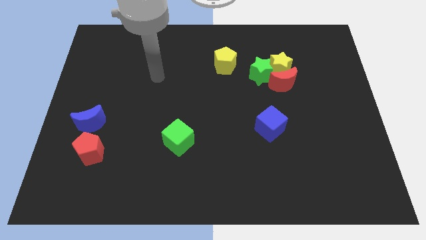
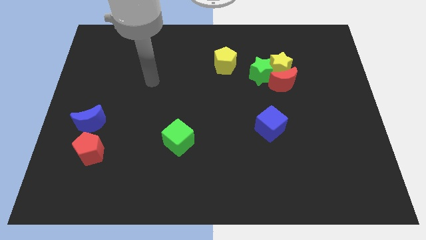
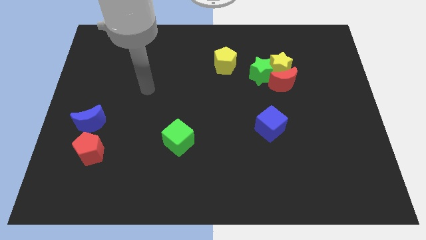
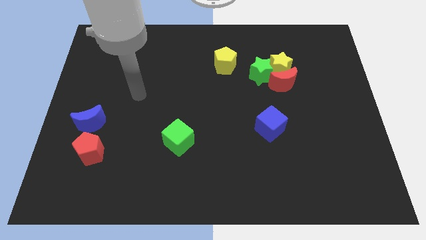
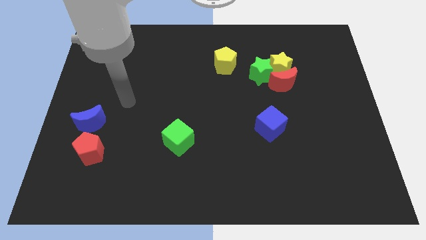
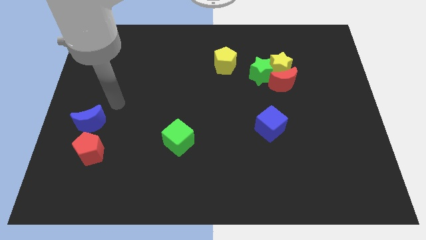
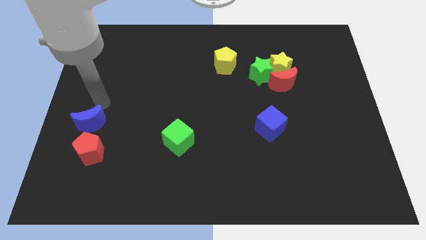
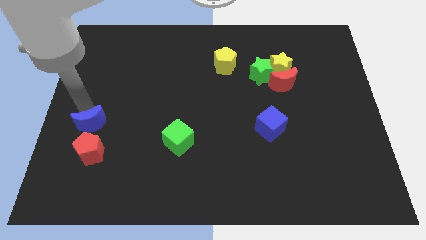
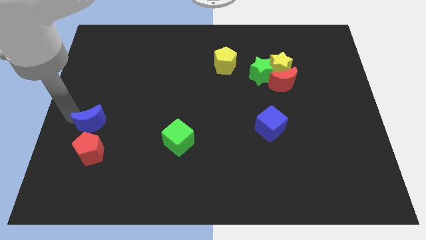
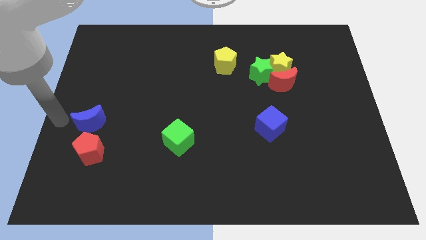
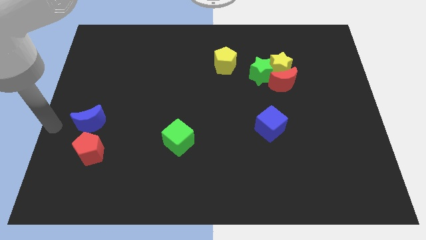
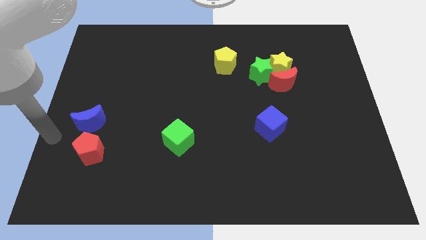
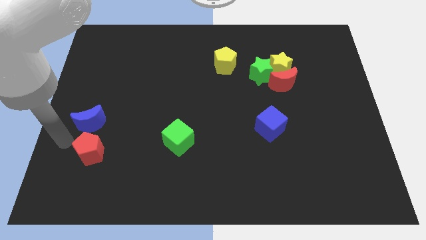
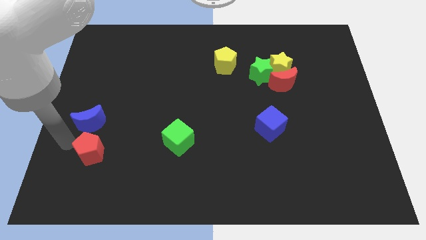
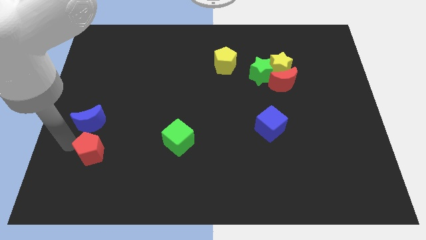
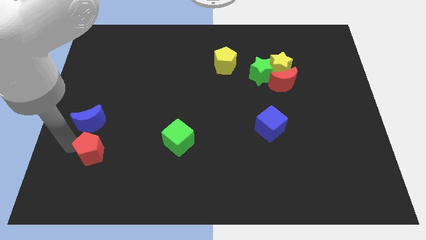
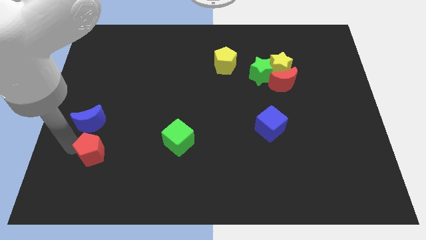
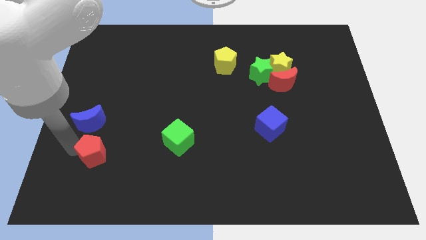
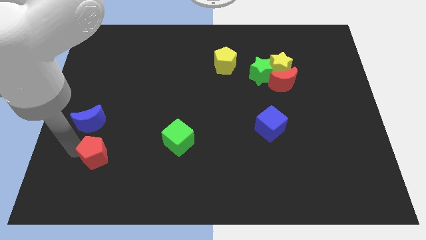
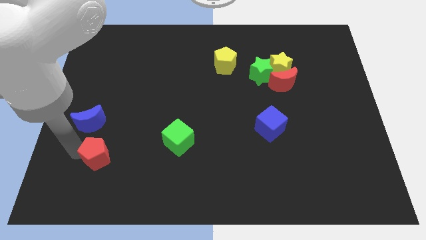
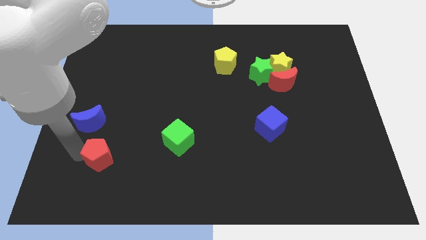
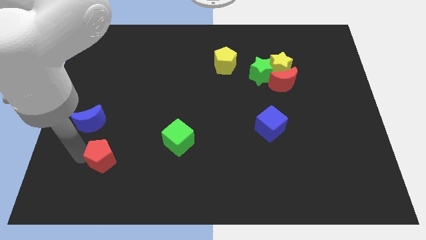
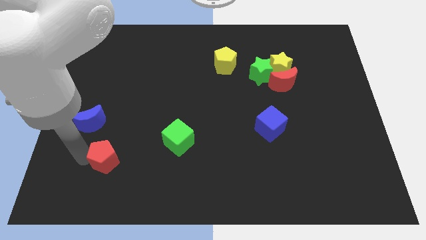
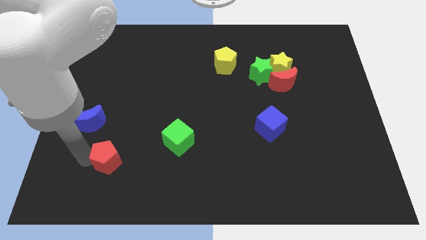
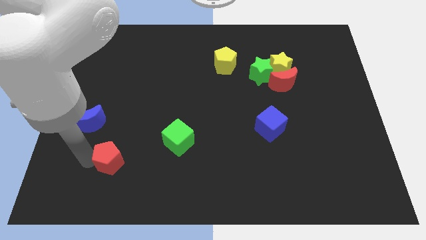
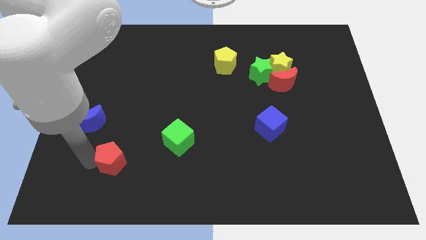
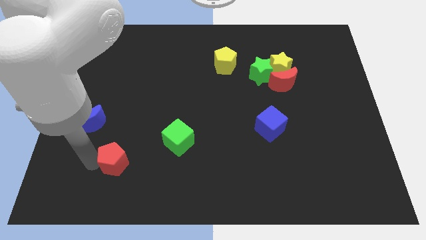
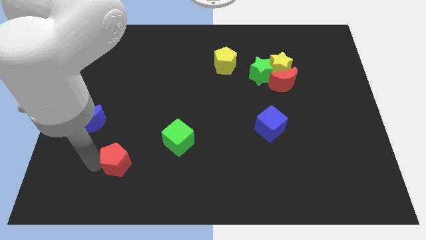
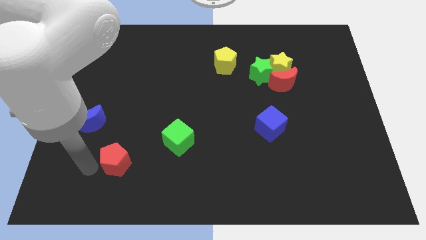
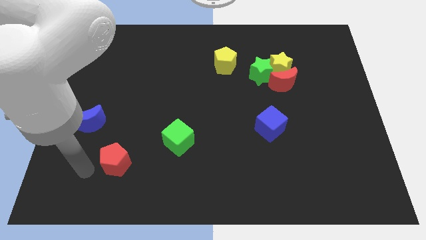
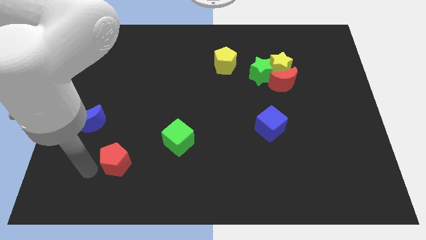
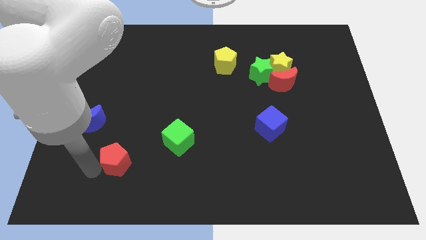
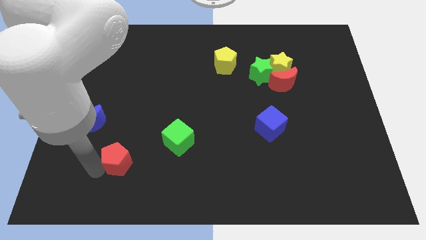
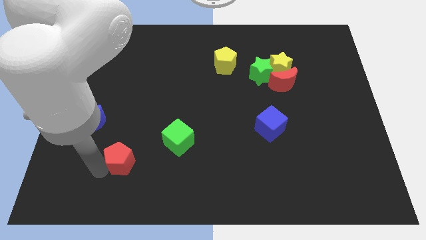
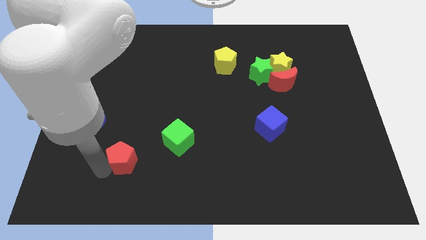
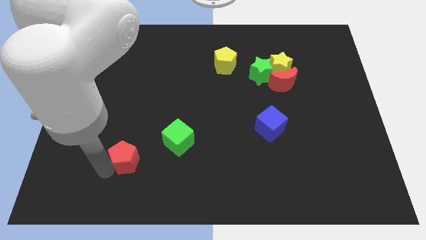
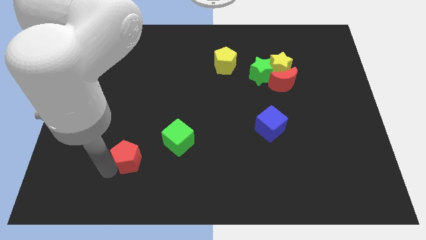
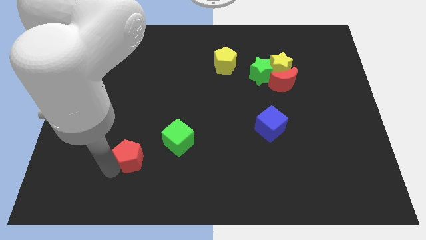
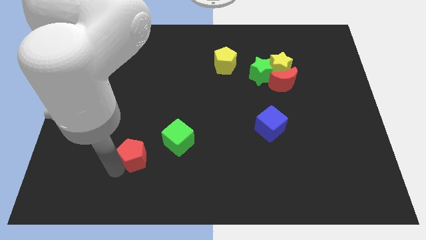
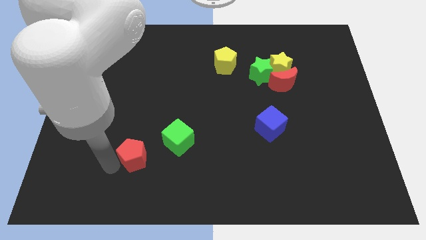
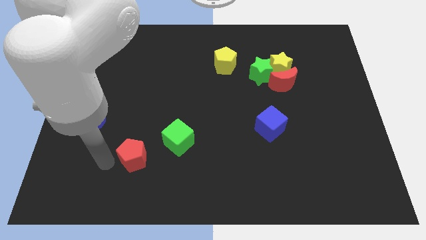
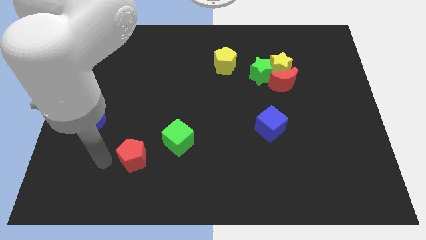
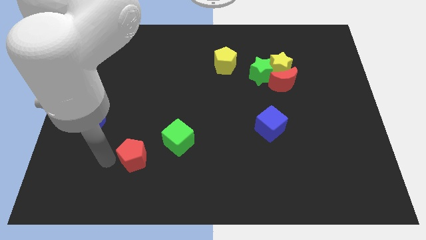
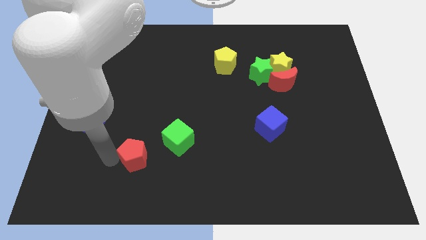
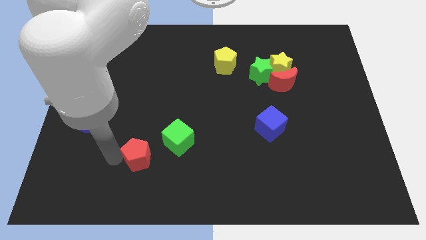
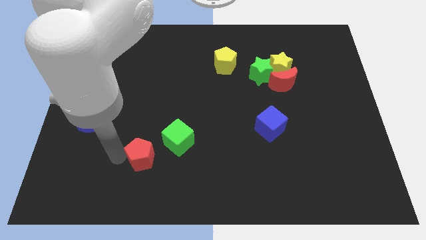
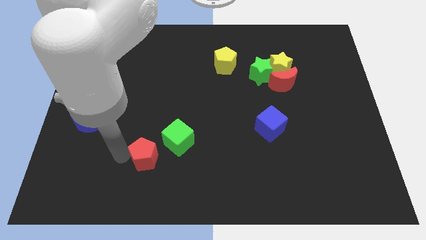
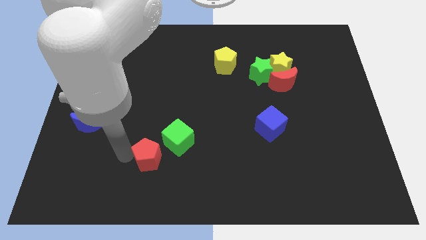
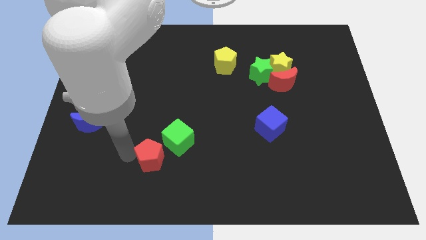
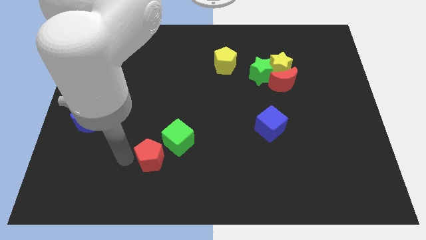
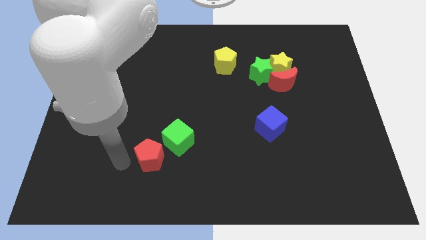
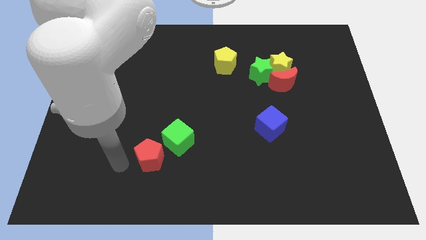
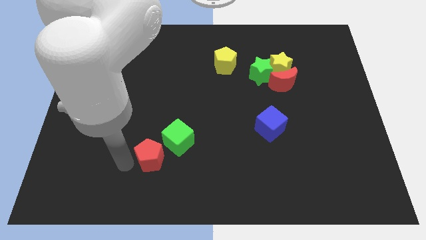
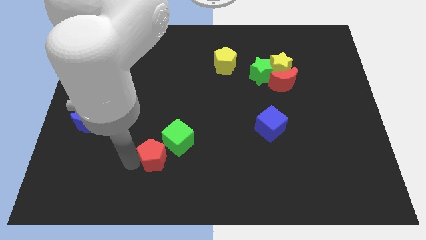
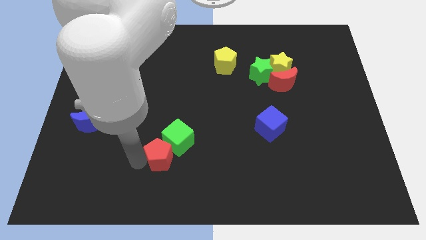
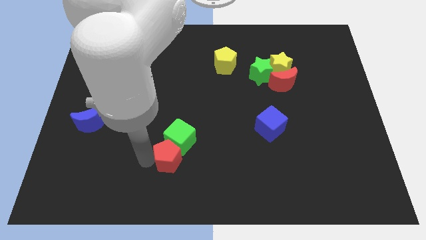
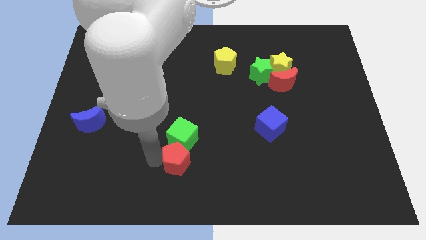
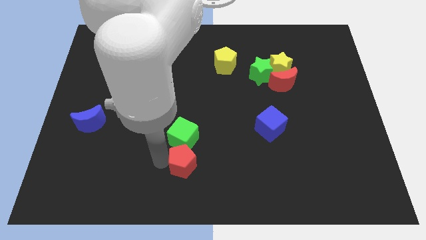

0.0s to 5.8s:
move the red pentagon to the right

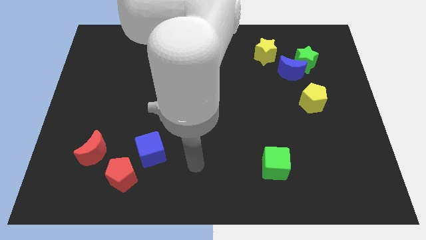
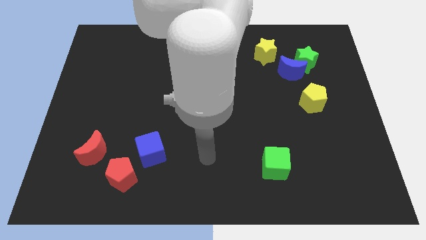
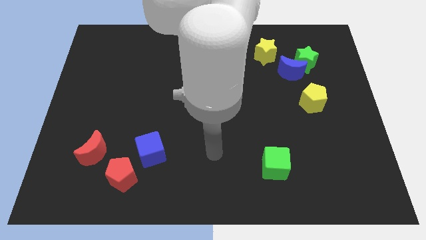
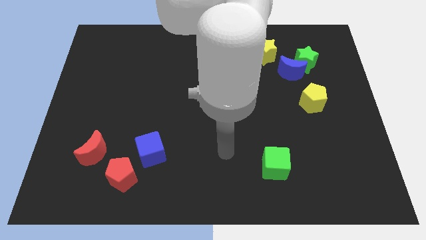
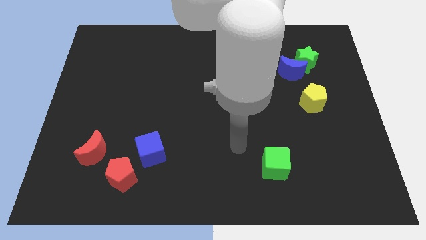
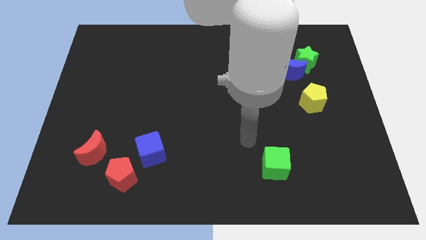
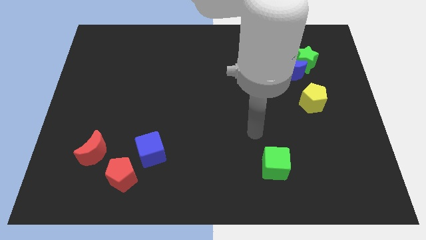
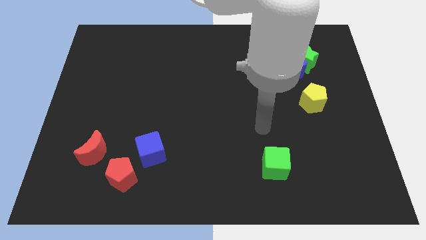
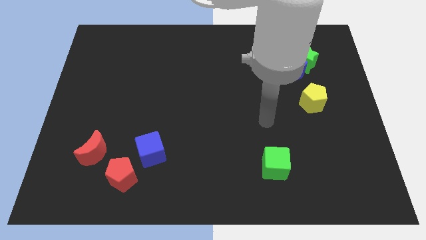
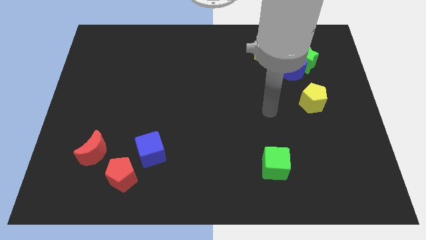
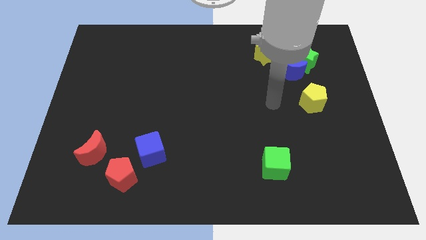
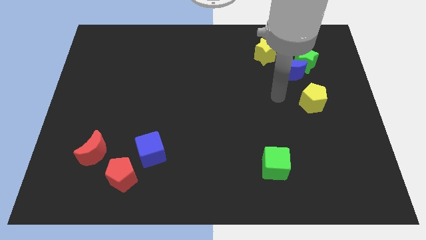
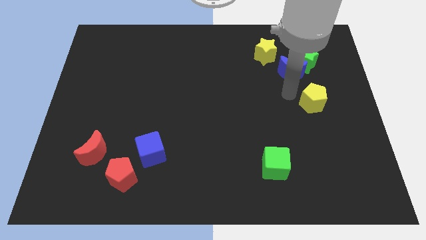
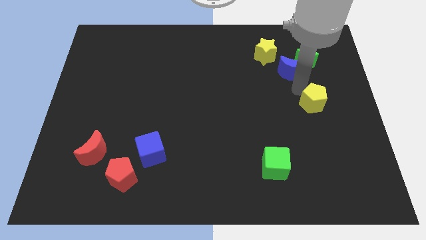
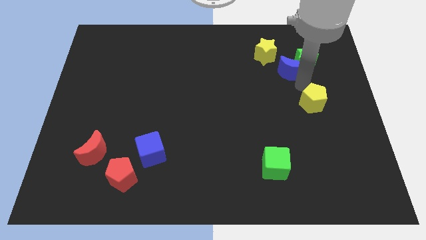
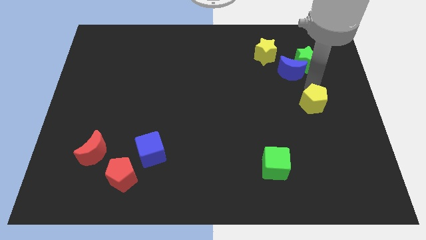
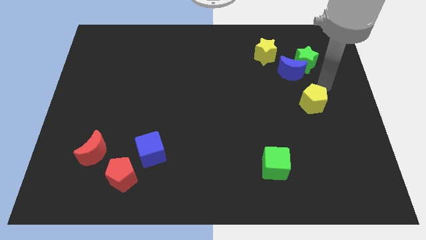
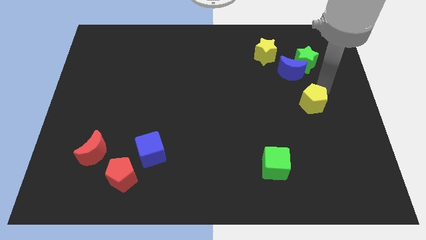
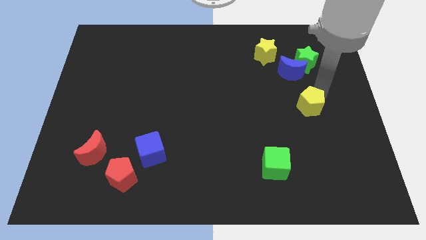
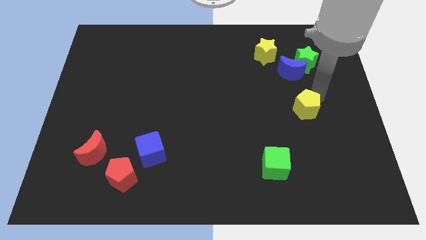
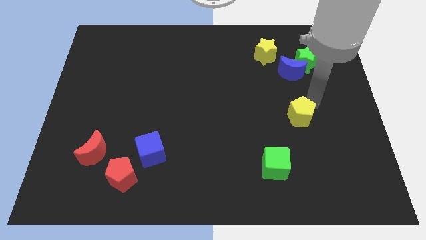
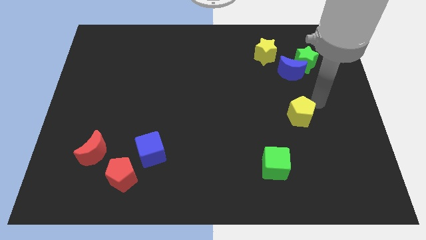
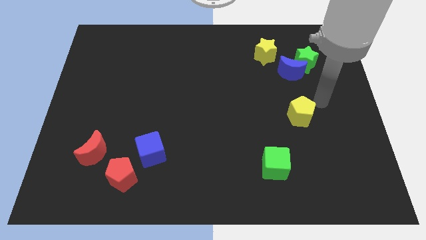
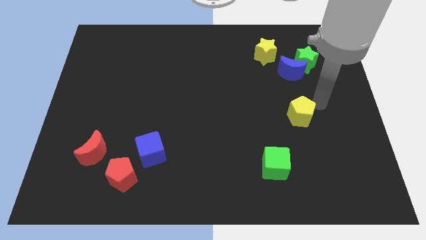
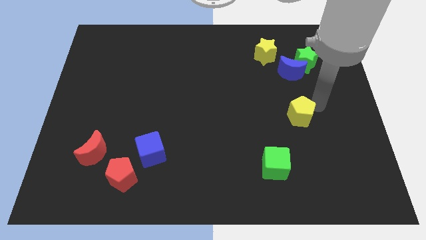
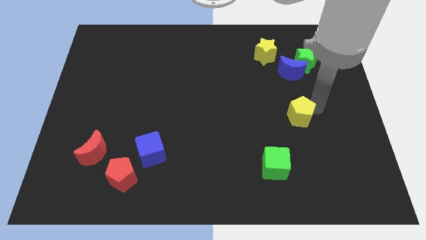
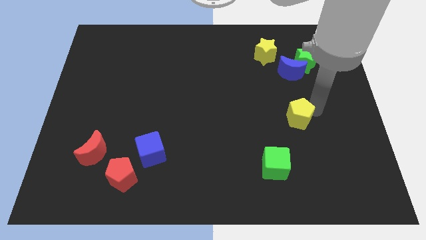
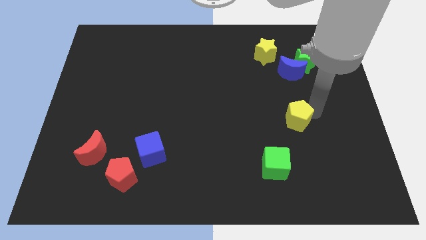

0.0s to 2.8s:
push the yellow pentagon diagonally downwards and left a little
